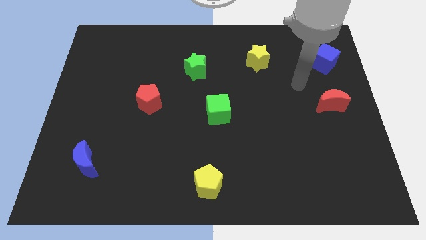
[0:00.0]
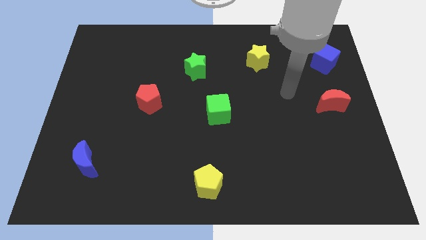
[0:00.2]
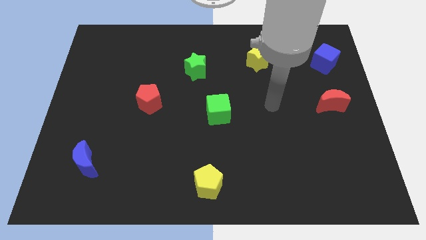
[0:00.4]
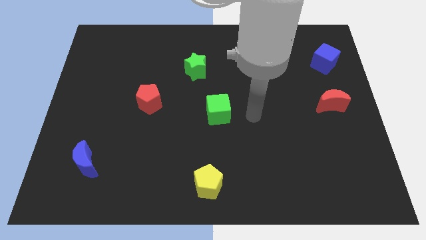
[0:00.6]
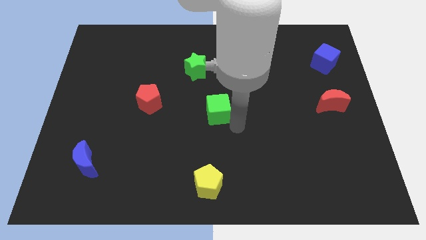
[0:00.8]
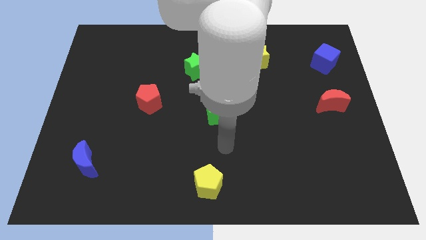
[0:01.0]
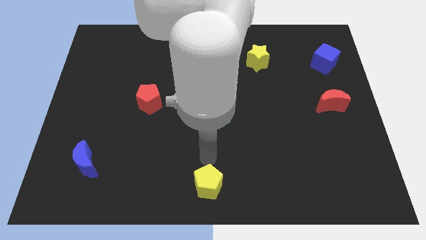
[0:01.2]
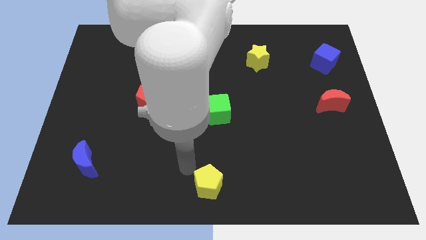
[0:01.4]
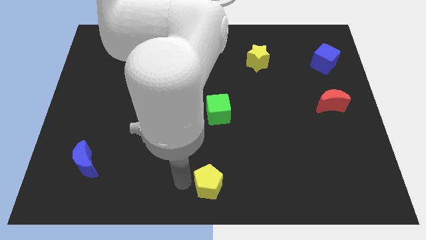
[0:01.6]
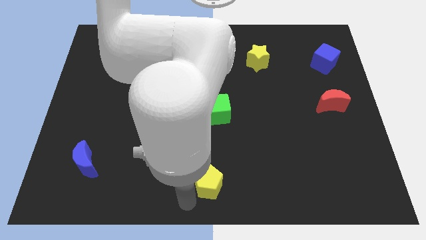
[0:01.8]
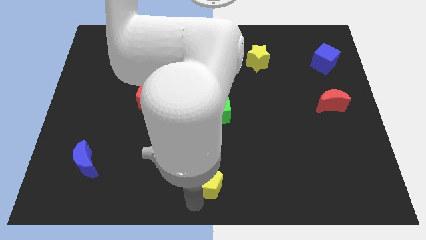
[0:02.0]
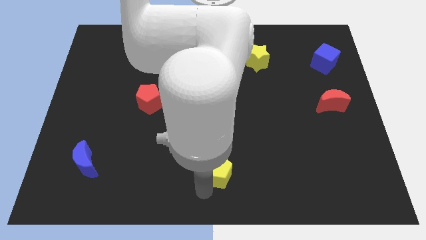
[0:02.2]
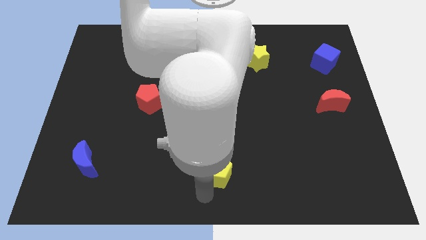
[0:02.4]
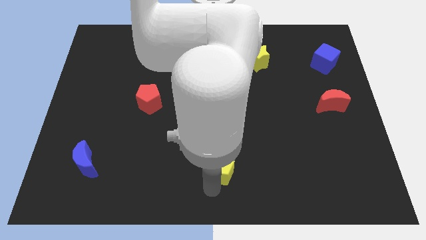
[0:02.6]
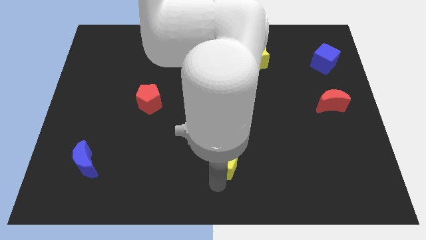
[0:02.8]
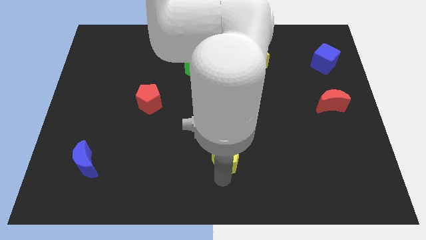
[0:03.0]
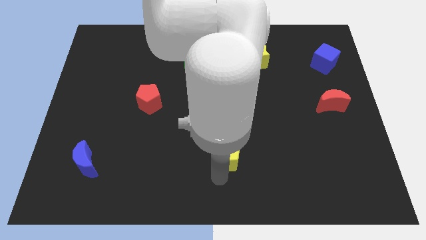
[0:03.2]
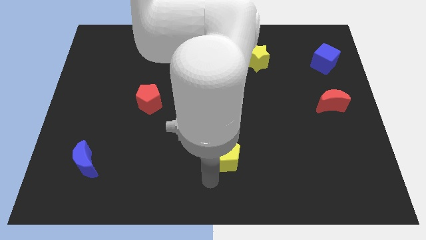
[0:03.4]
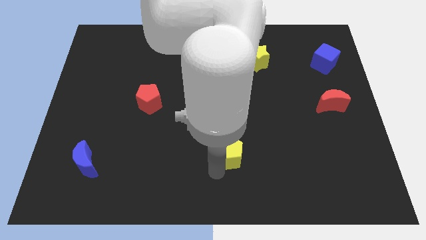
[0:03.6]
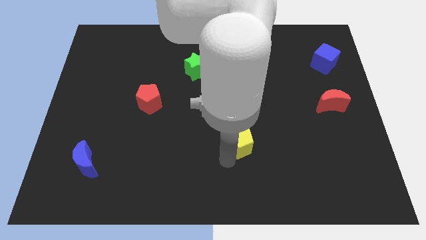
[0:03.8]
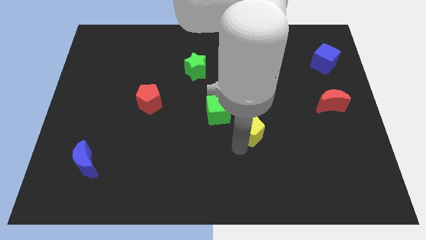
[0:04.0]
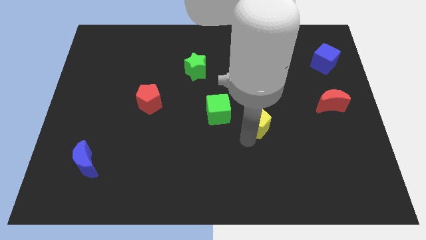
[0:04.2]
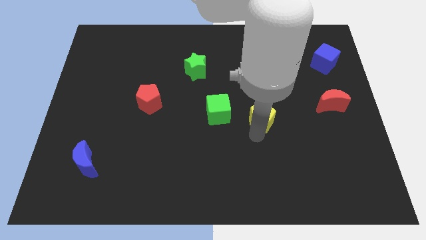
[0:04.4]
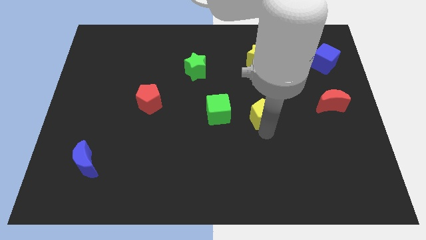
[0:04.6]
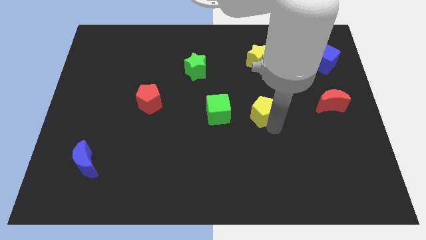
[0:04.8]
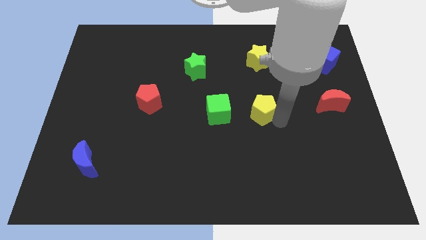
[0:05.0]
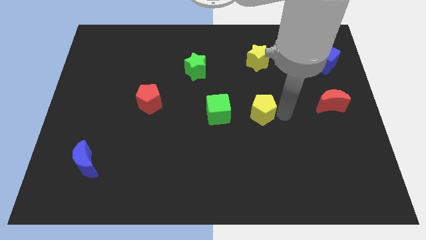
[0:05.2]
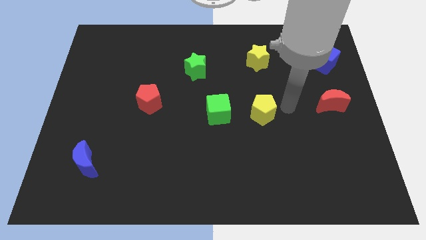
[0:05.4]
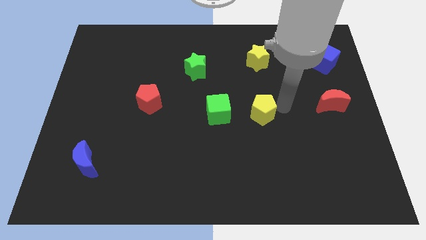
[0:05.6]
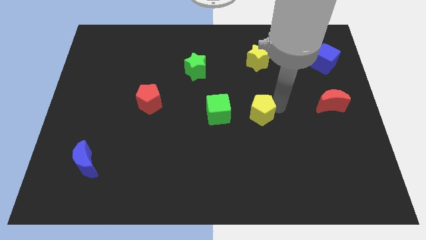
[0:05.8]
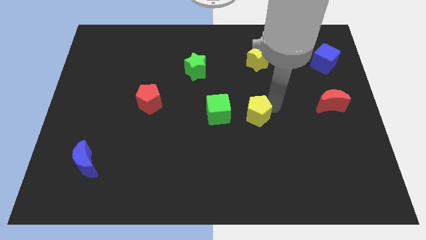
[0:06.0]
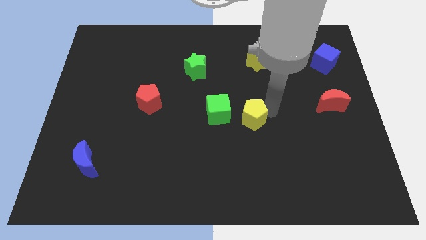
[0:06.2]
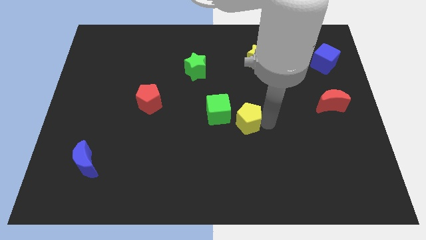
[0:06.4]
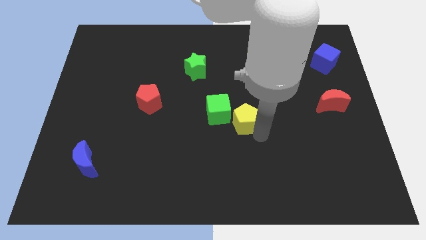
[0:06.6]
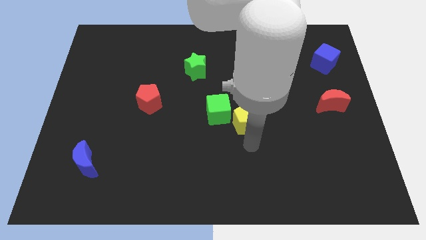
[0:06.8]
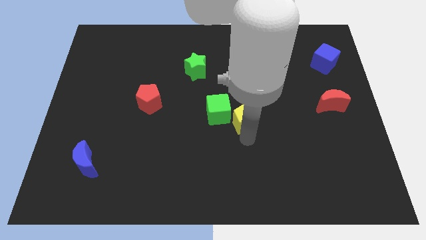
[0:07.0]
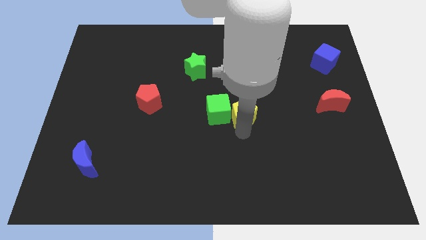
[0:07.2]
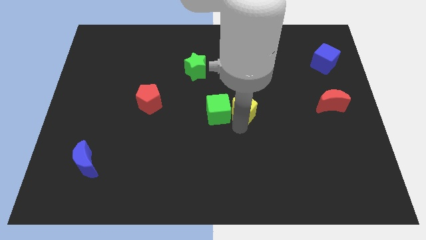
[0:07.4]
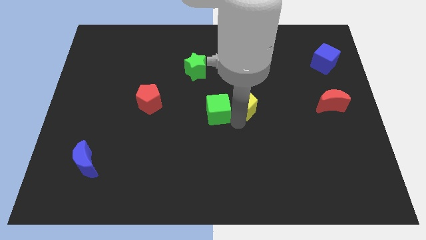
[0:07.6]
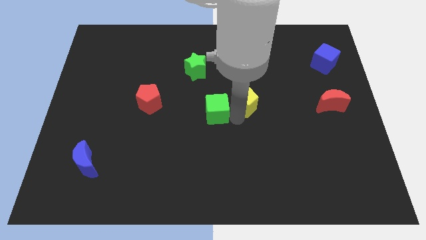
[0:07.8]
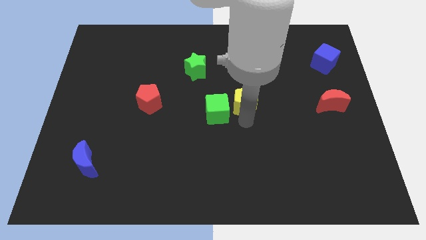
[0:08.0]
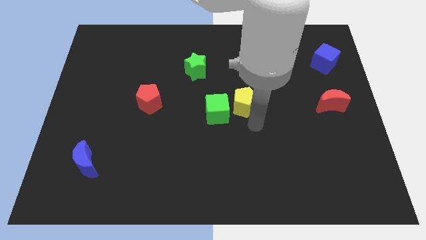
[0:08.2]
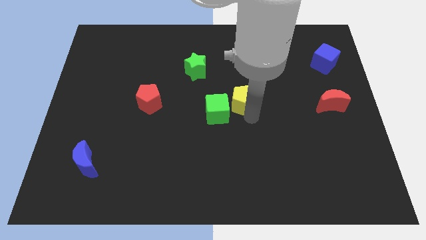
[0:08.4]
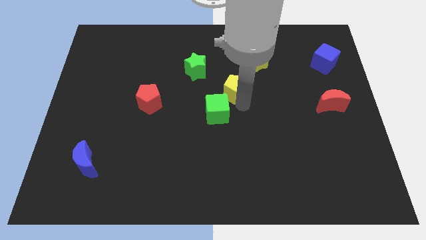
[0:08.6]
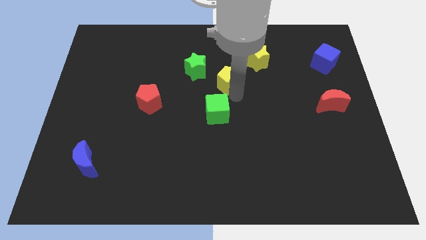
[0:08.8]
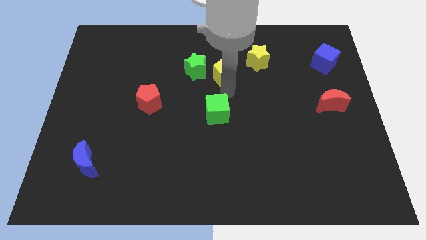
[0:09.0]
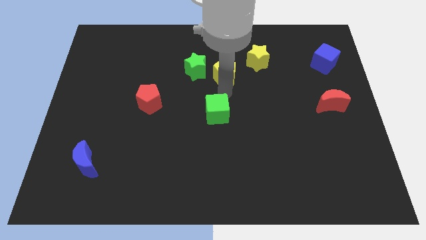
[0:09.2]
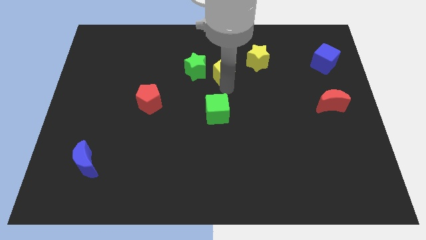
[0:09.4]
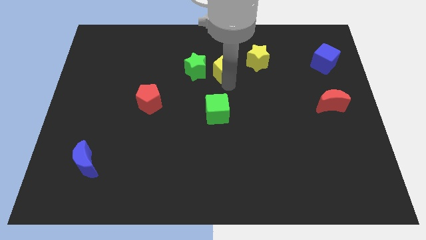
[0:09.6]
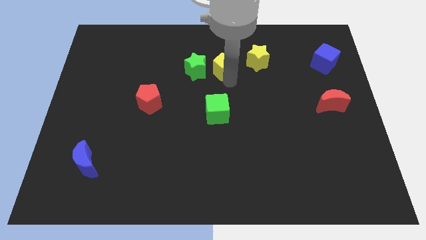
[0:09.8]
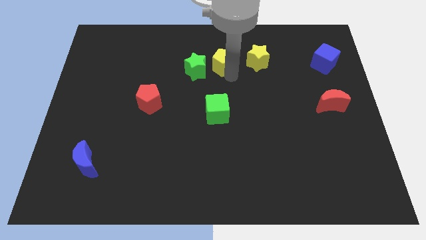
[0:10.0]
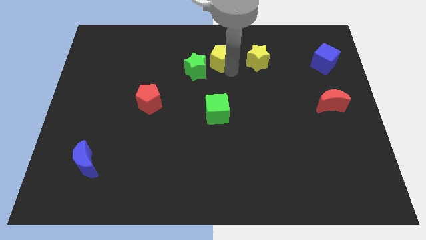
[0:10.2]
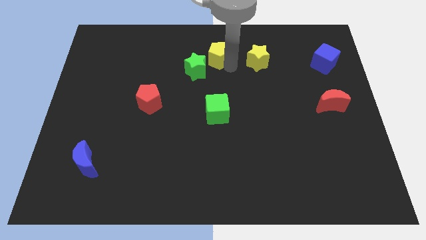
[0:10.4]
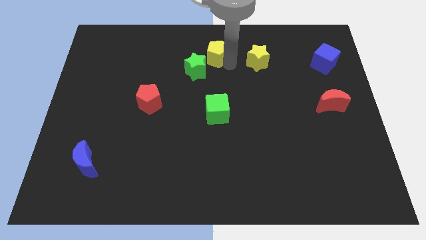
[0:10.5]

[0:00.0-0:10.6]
put the yellow pentagon to the top
